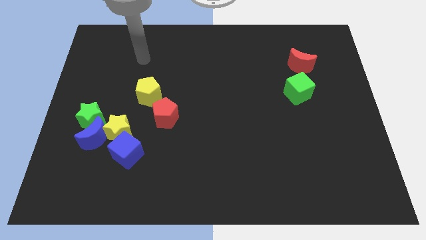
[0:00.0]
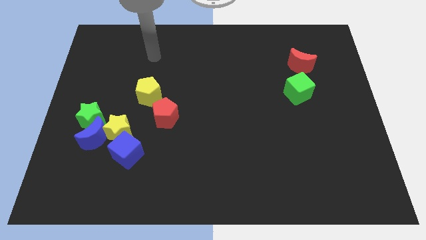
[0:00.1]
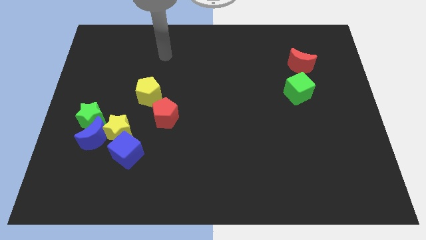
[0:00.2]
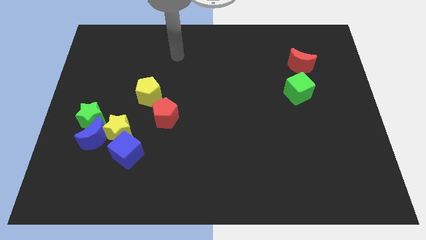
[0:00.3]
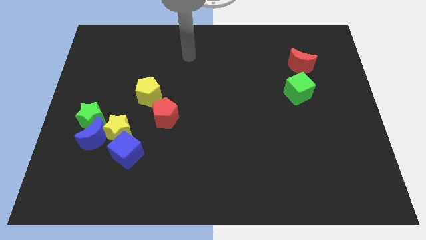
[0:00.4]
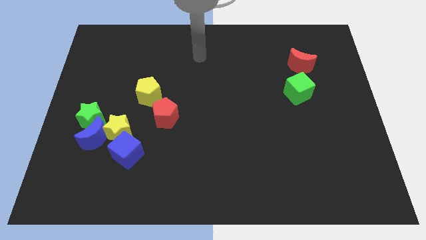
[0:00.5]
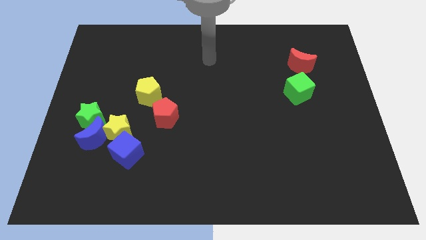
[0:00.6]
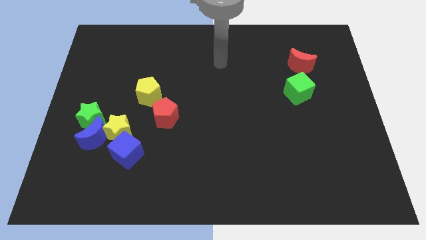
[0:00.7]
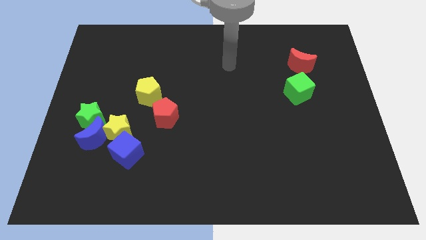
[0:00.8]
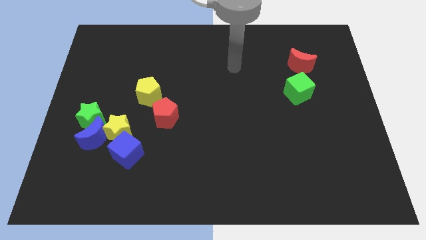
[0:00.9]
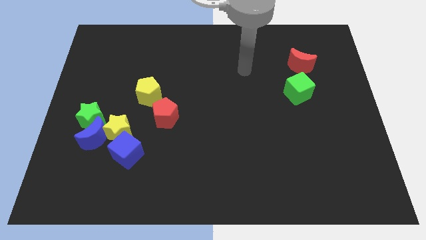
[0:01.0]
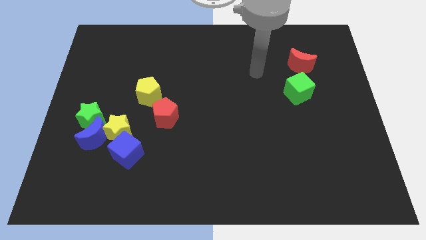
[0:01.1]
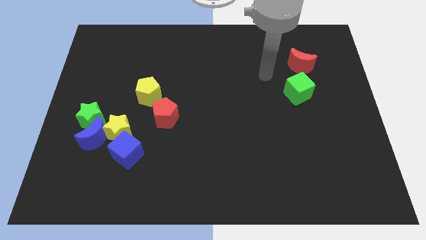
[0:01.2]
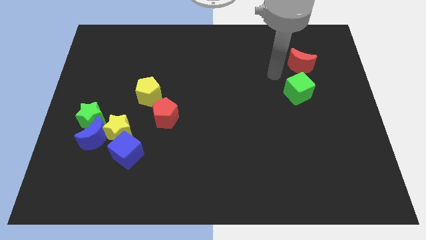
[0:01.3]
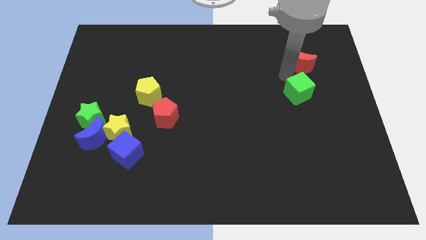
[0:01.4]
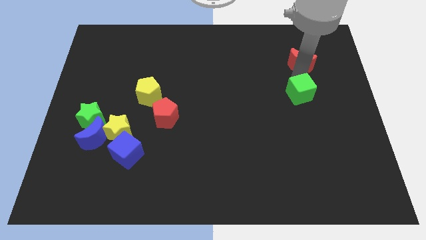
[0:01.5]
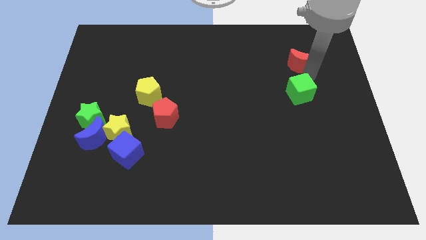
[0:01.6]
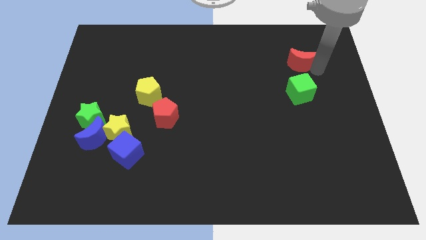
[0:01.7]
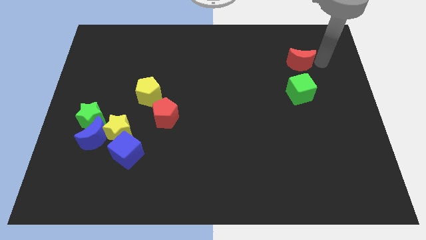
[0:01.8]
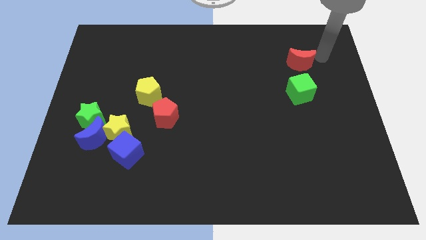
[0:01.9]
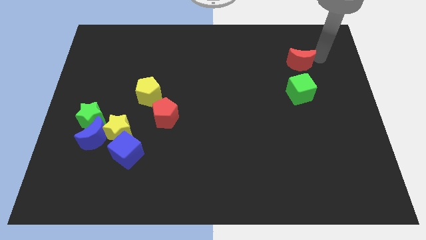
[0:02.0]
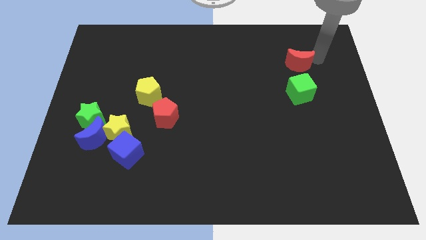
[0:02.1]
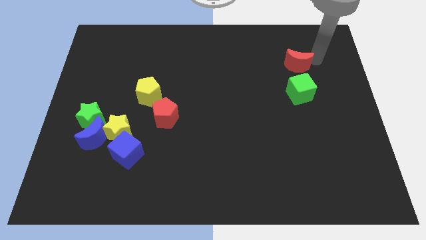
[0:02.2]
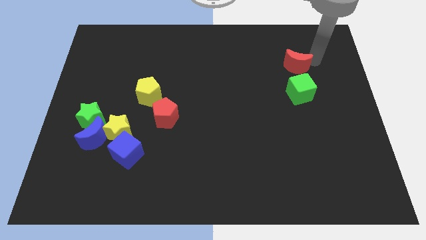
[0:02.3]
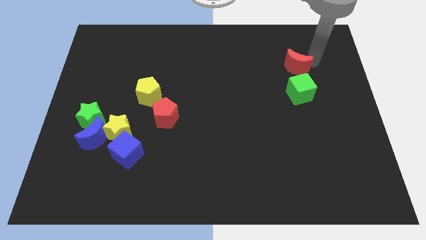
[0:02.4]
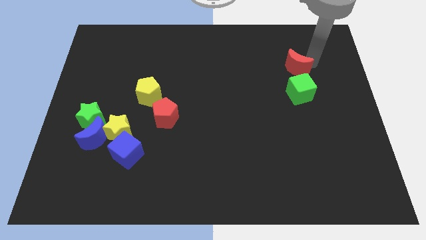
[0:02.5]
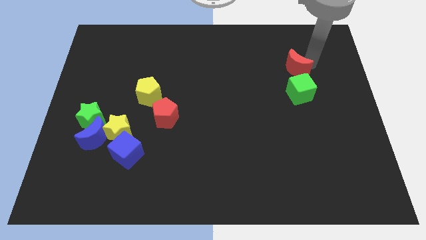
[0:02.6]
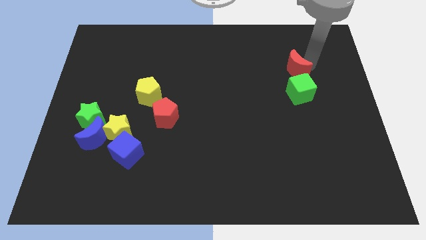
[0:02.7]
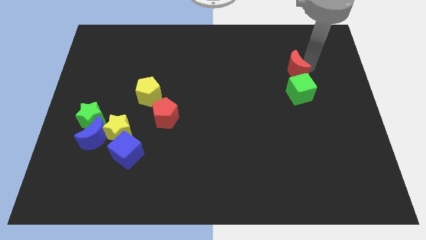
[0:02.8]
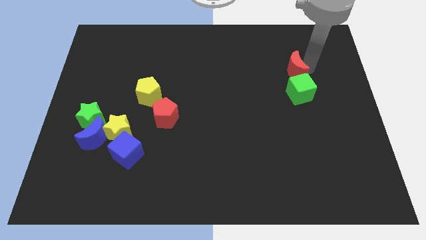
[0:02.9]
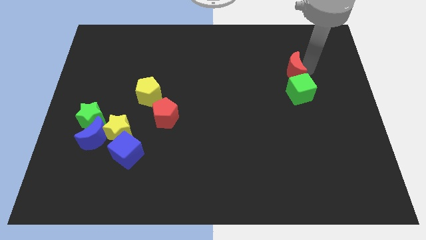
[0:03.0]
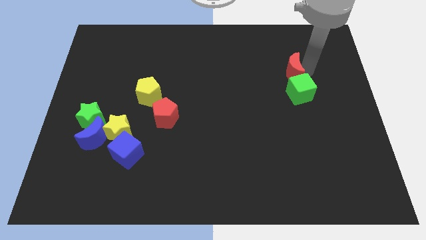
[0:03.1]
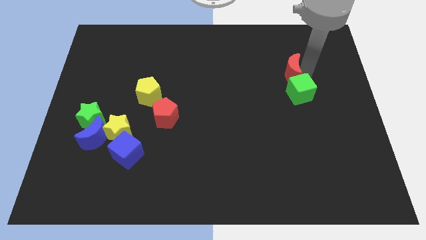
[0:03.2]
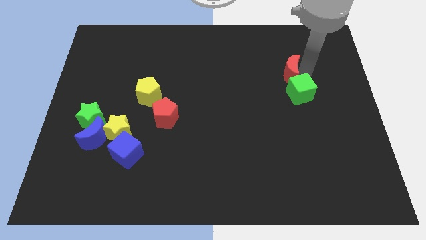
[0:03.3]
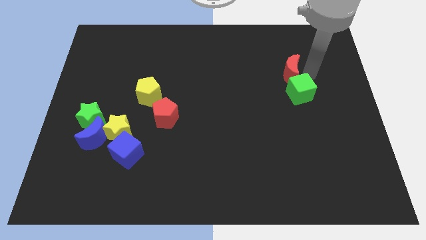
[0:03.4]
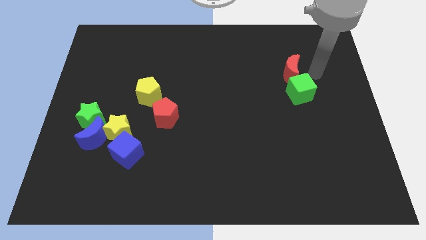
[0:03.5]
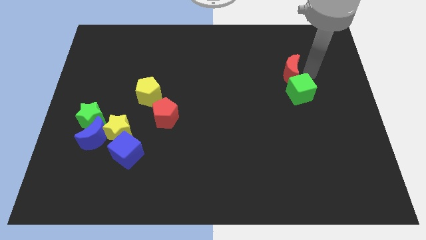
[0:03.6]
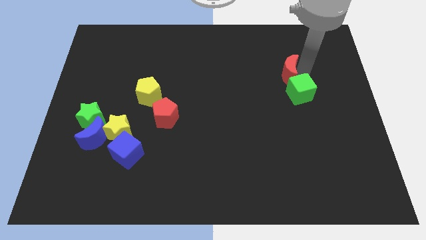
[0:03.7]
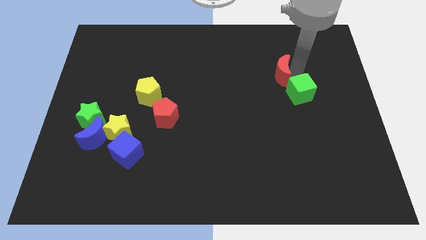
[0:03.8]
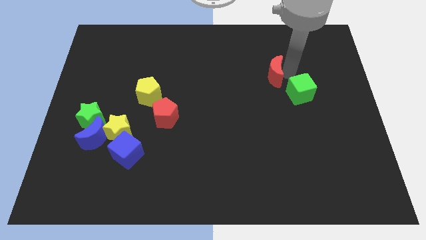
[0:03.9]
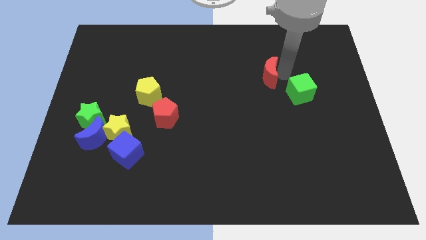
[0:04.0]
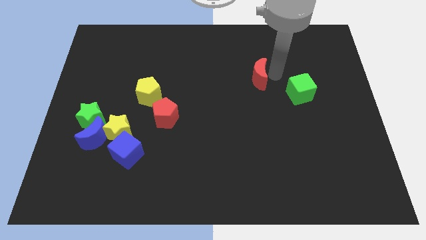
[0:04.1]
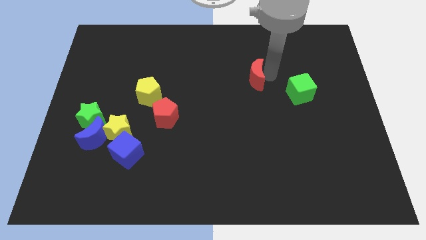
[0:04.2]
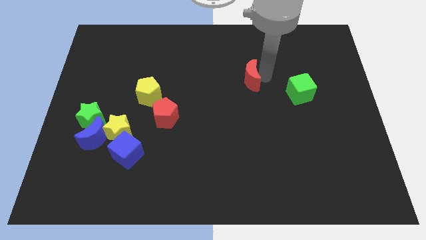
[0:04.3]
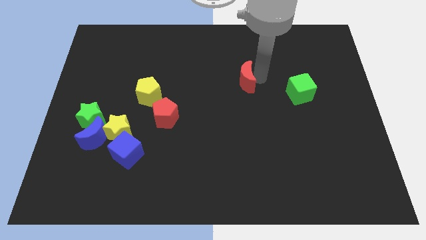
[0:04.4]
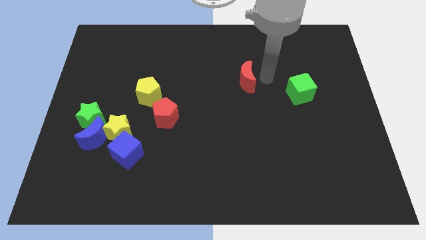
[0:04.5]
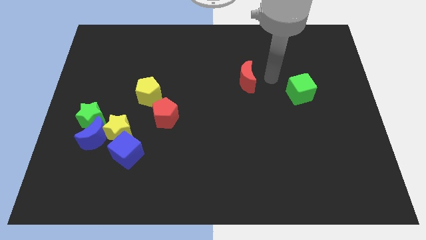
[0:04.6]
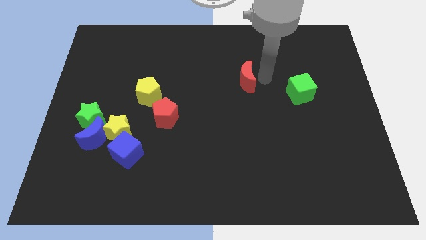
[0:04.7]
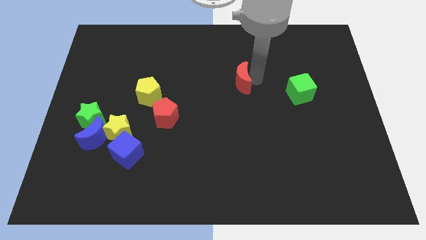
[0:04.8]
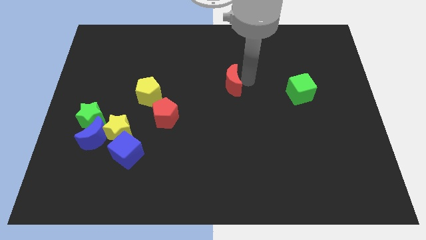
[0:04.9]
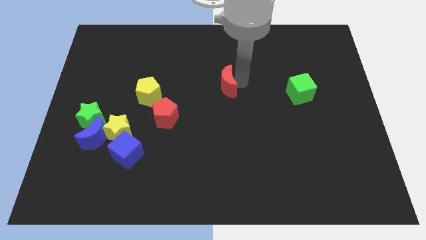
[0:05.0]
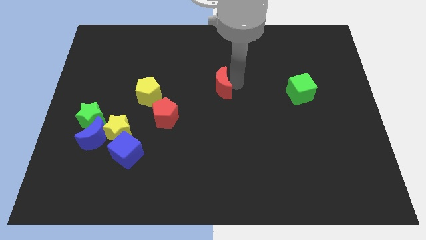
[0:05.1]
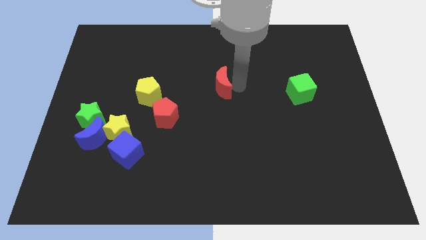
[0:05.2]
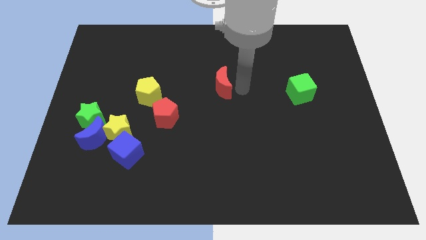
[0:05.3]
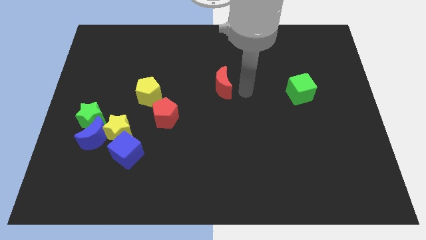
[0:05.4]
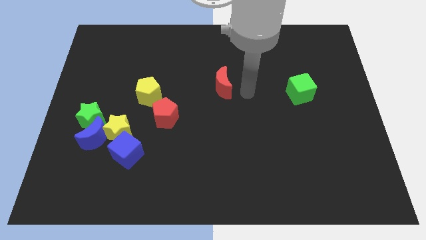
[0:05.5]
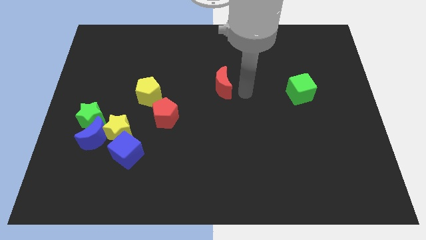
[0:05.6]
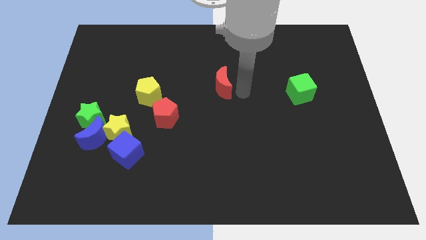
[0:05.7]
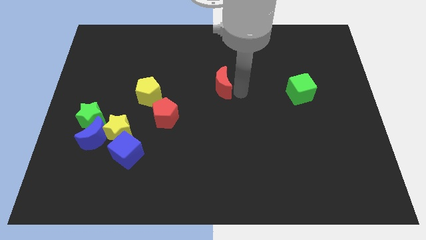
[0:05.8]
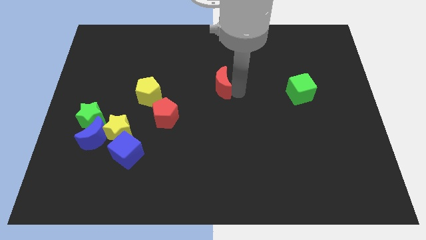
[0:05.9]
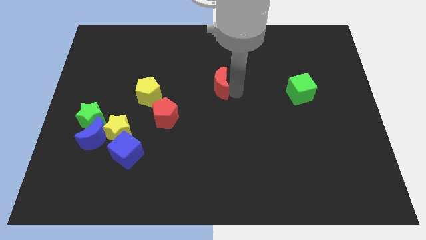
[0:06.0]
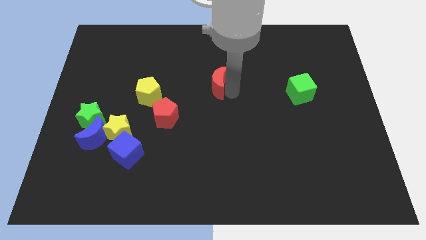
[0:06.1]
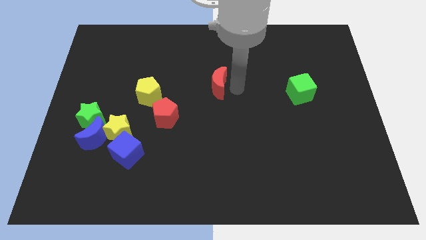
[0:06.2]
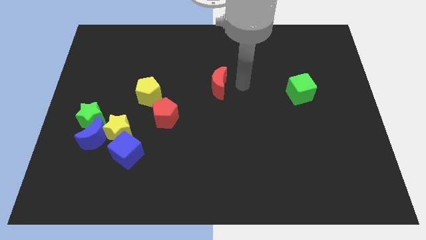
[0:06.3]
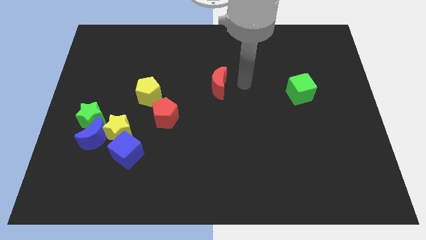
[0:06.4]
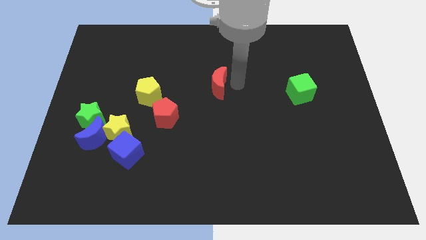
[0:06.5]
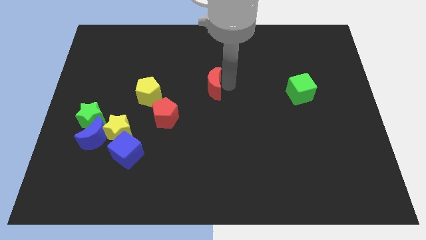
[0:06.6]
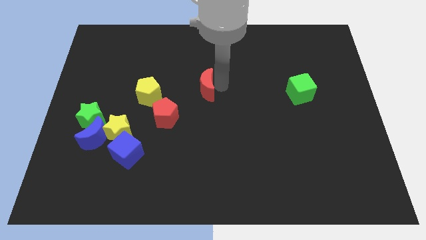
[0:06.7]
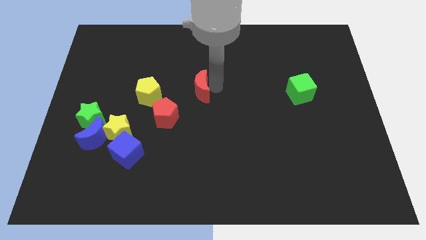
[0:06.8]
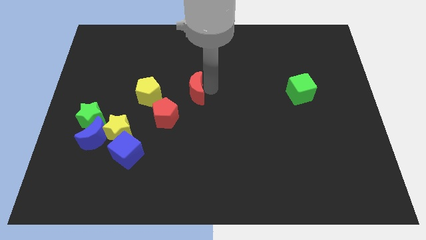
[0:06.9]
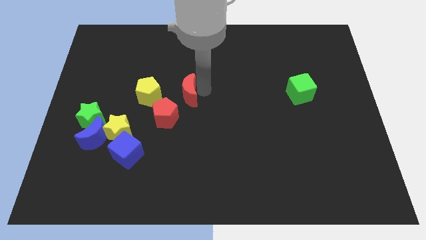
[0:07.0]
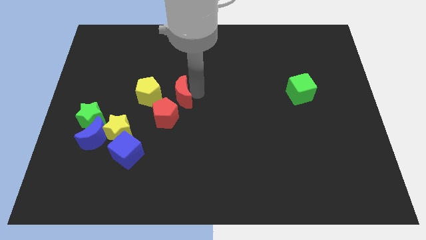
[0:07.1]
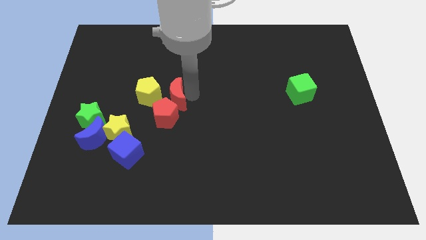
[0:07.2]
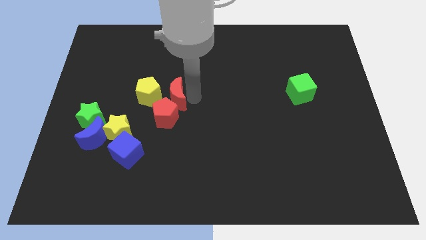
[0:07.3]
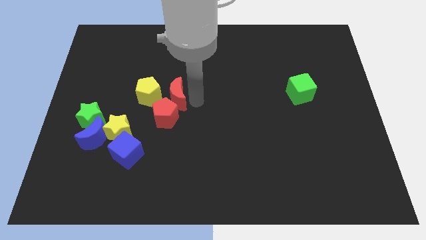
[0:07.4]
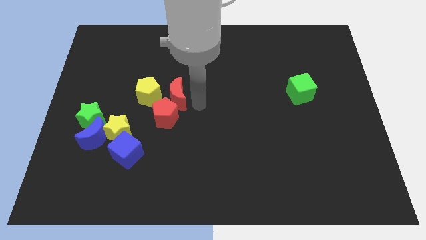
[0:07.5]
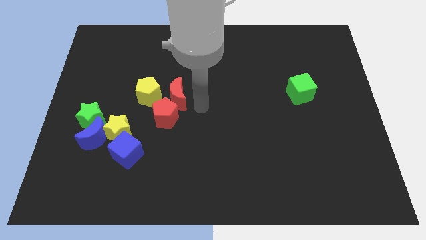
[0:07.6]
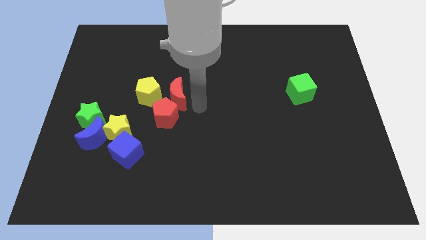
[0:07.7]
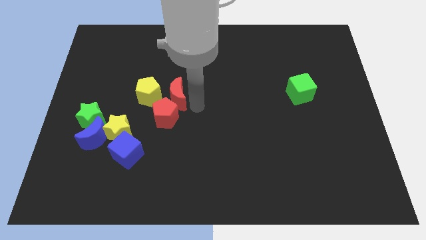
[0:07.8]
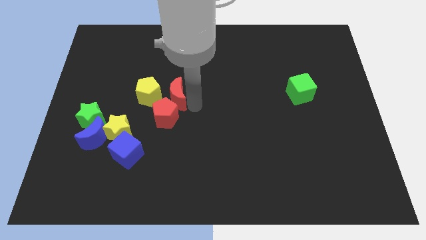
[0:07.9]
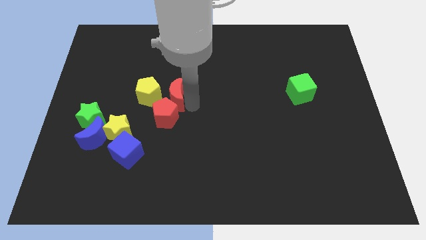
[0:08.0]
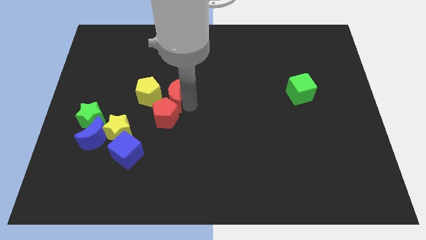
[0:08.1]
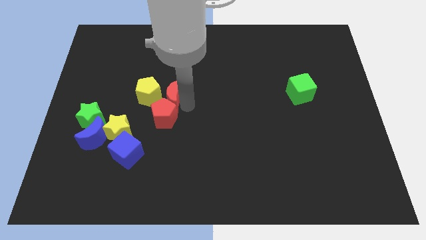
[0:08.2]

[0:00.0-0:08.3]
push the red moon to the yellow pentagon
